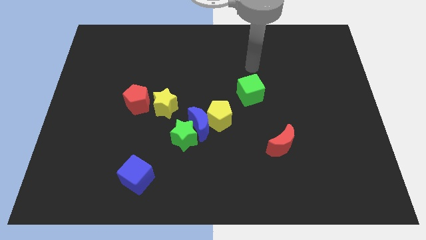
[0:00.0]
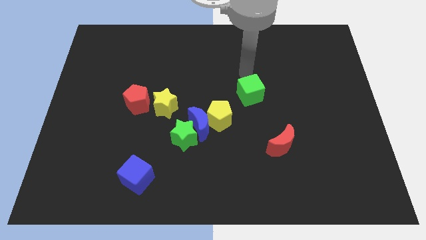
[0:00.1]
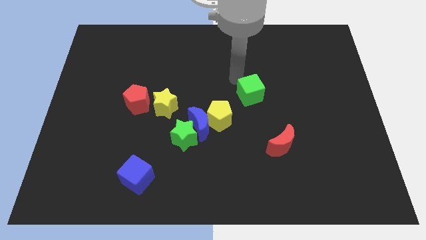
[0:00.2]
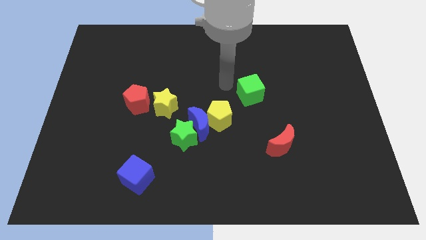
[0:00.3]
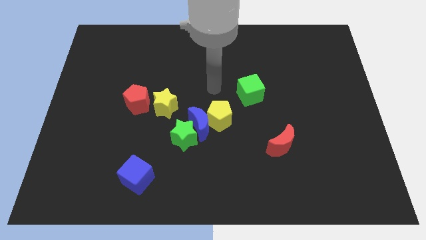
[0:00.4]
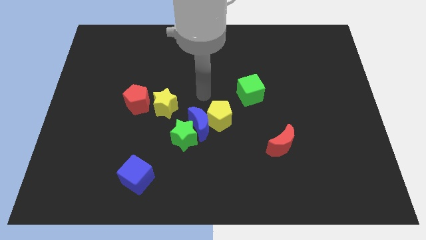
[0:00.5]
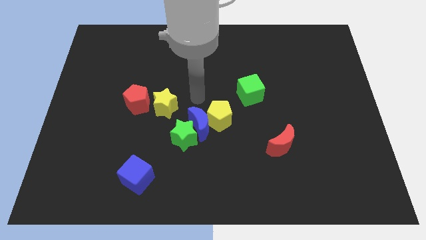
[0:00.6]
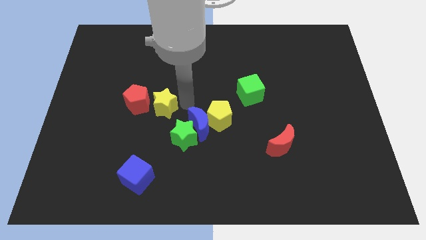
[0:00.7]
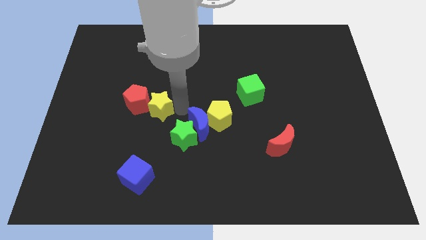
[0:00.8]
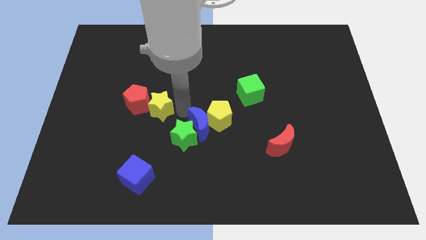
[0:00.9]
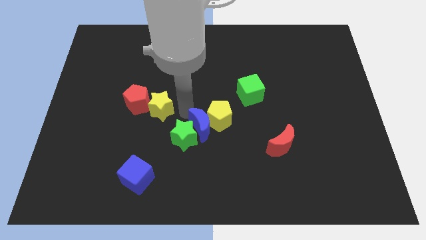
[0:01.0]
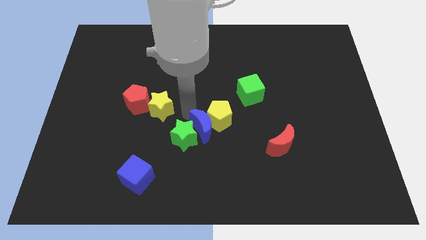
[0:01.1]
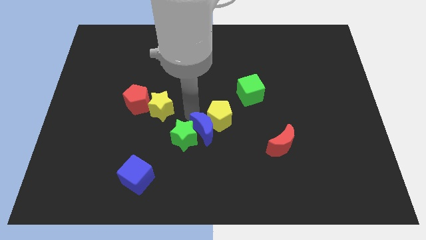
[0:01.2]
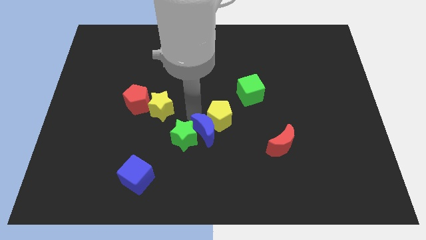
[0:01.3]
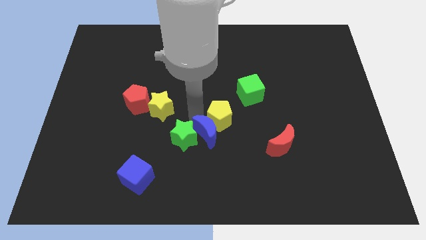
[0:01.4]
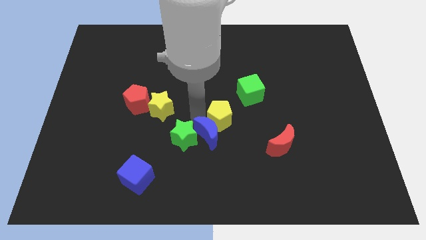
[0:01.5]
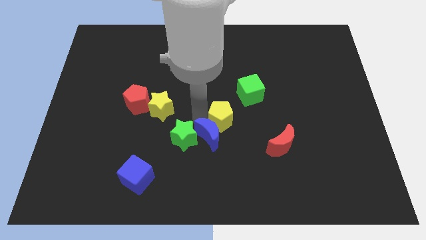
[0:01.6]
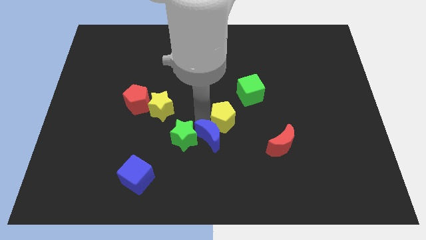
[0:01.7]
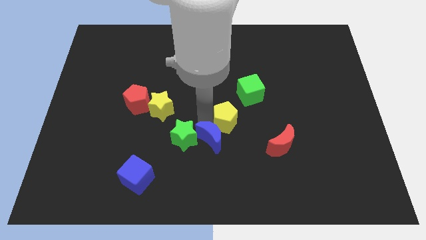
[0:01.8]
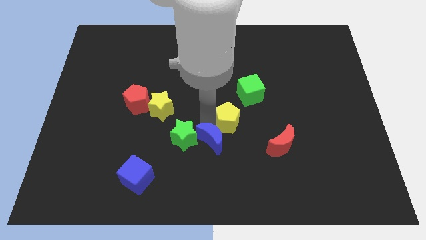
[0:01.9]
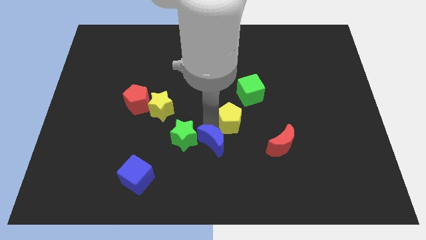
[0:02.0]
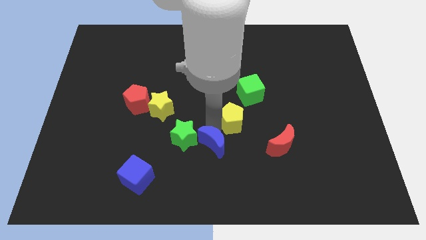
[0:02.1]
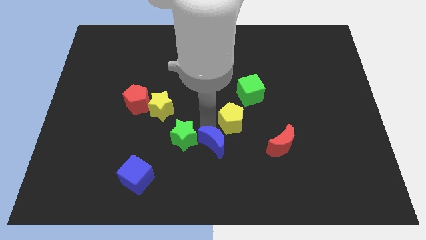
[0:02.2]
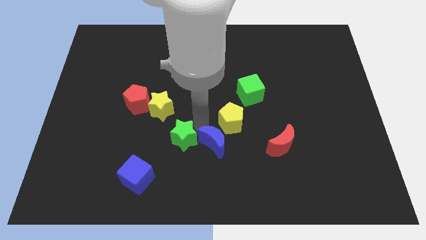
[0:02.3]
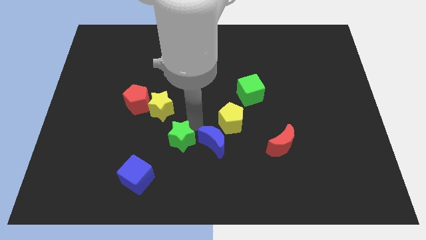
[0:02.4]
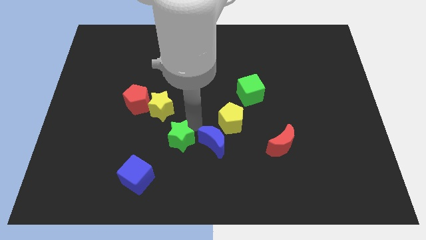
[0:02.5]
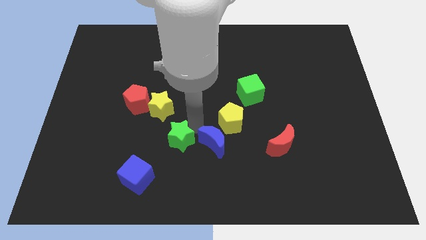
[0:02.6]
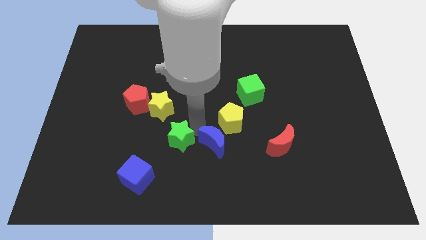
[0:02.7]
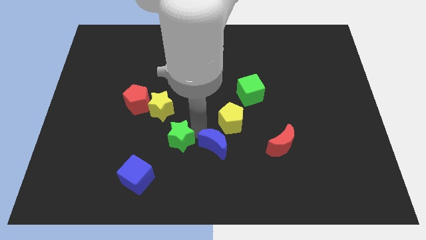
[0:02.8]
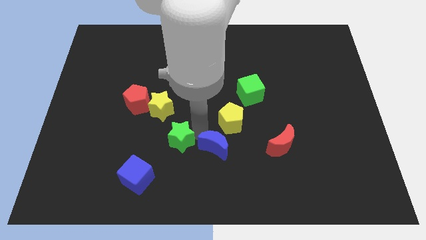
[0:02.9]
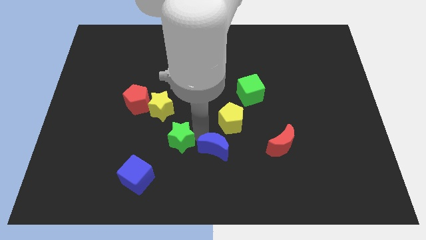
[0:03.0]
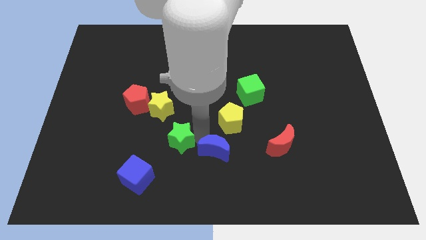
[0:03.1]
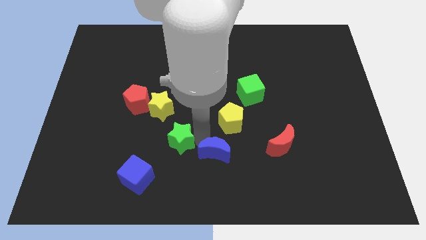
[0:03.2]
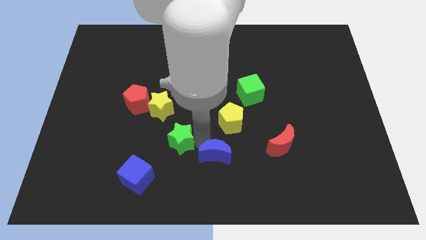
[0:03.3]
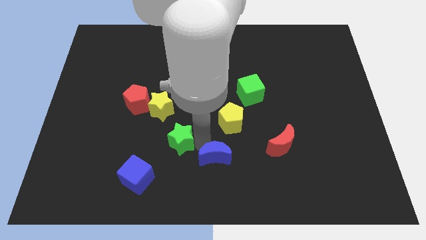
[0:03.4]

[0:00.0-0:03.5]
separate the blue moon from the green star, yellow pentagon, and yellow star

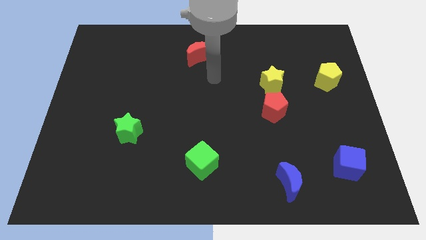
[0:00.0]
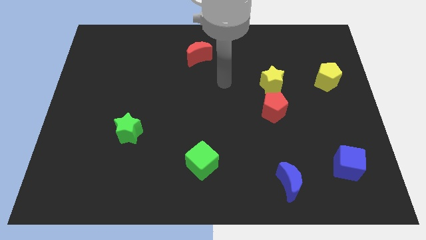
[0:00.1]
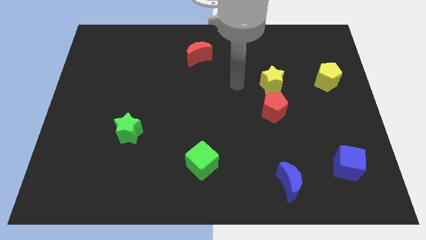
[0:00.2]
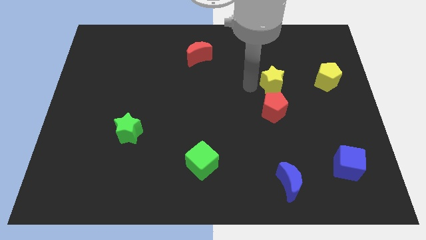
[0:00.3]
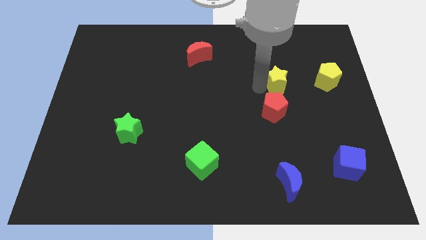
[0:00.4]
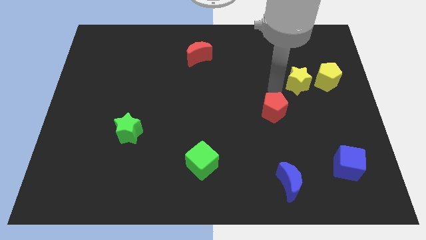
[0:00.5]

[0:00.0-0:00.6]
pull the red pentagon apart from the yellow star

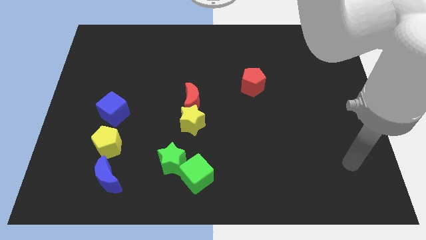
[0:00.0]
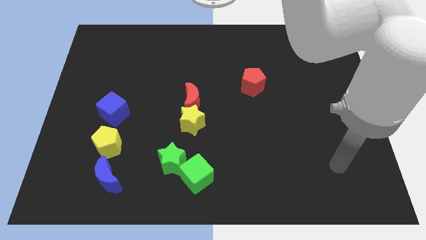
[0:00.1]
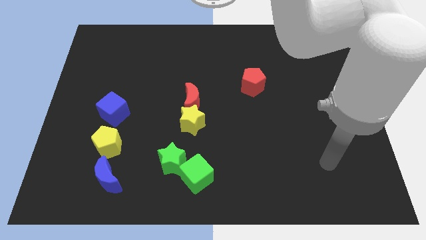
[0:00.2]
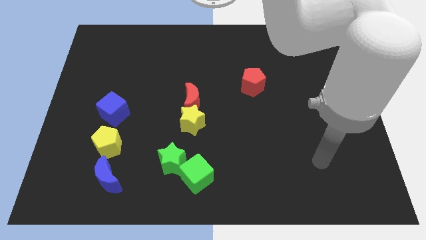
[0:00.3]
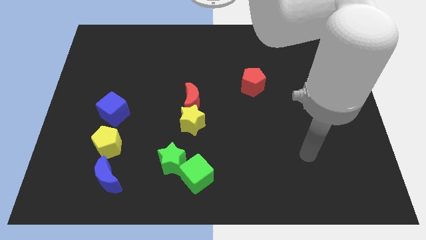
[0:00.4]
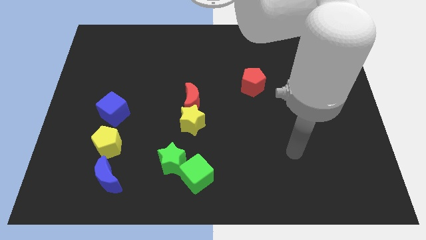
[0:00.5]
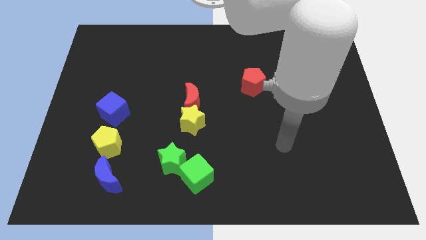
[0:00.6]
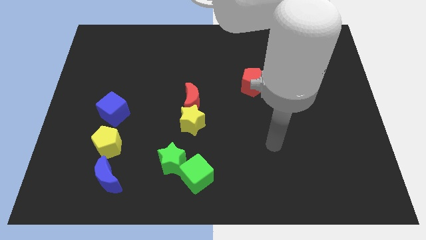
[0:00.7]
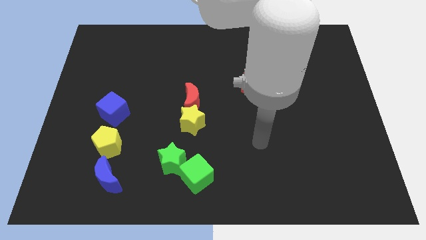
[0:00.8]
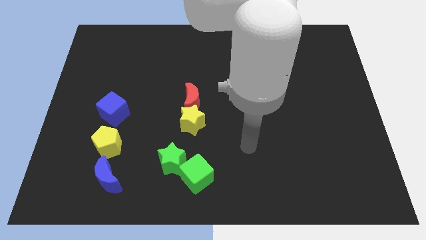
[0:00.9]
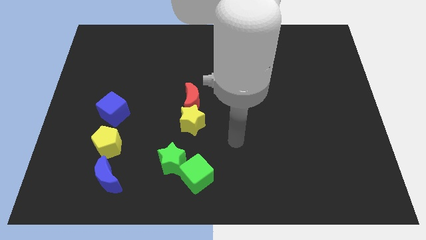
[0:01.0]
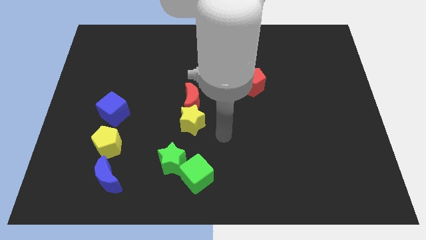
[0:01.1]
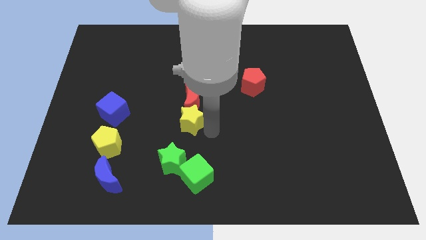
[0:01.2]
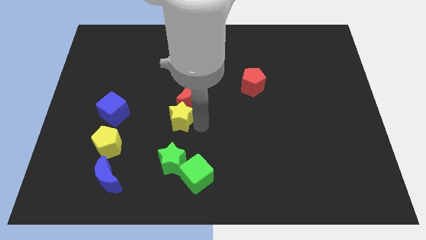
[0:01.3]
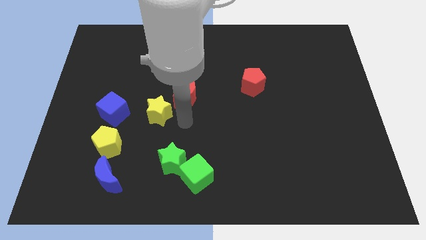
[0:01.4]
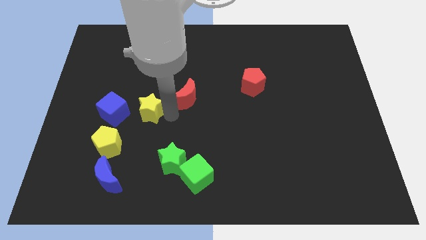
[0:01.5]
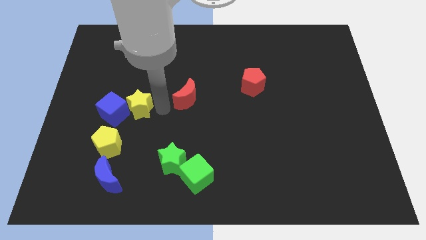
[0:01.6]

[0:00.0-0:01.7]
pull the red moon apart from the yellow star

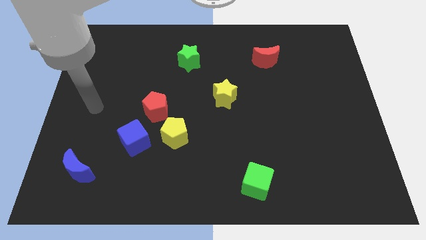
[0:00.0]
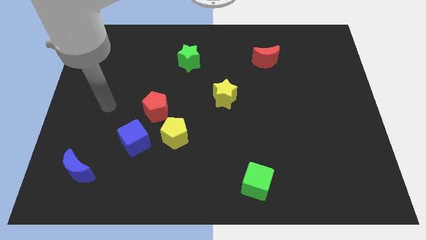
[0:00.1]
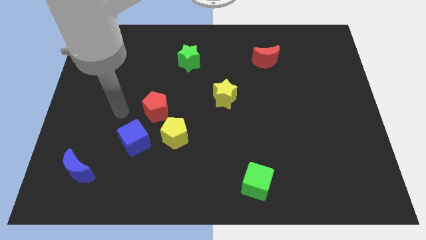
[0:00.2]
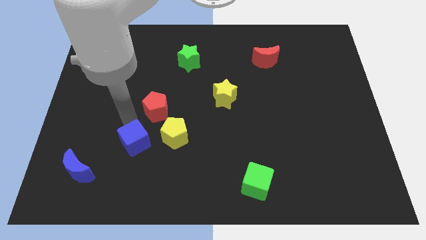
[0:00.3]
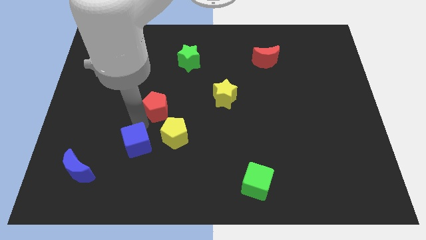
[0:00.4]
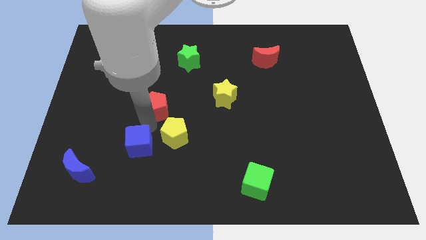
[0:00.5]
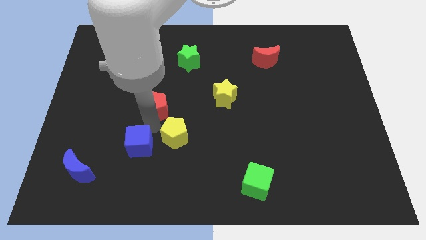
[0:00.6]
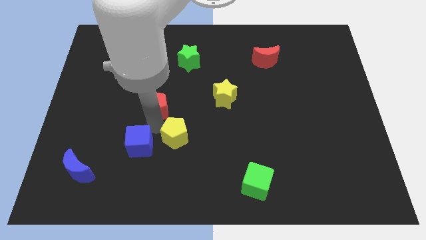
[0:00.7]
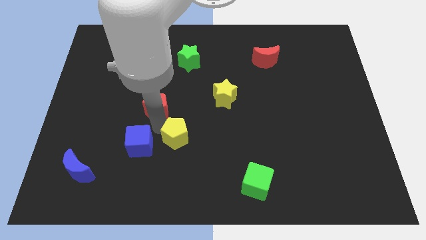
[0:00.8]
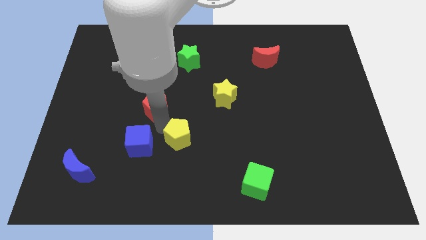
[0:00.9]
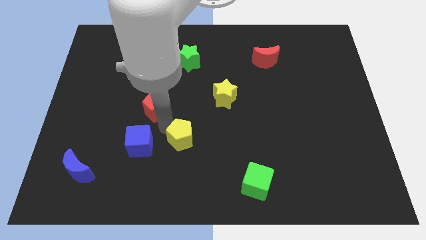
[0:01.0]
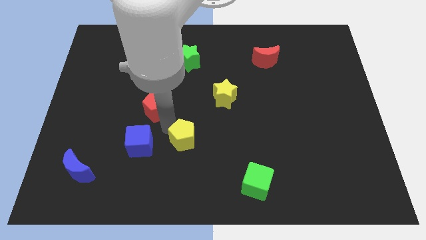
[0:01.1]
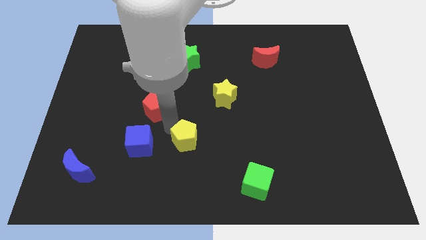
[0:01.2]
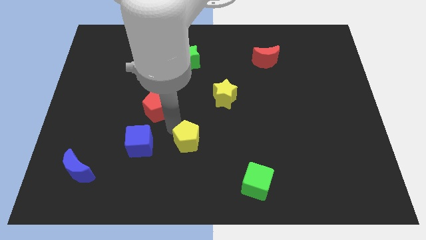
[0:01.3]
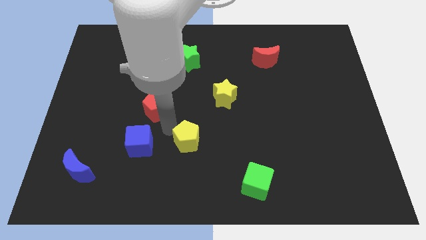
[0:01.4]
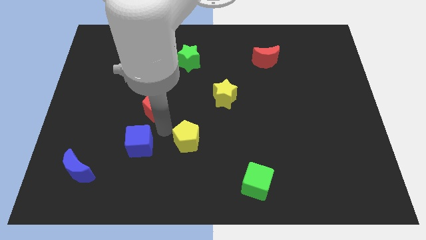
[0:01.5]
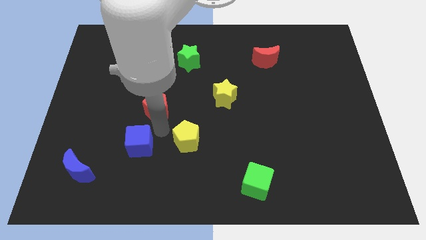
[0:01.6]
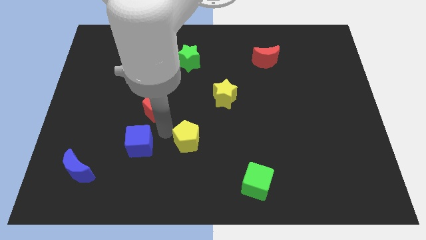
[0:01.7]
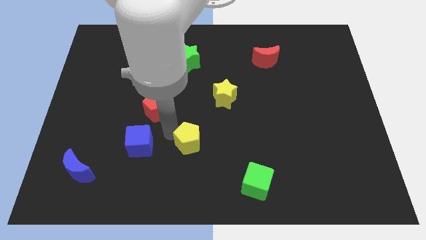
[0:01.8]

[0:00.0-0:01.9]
move the yellow pentagon away from the red pentagon and blue cube

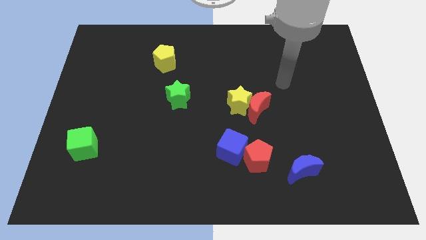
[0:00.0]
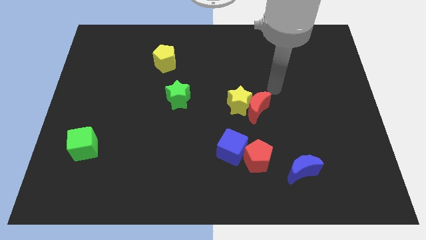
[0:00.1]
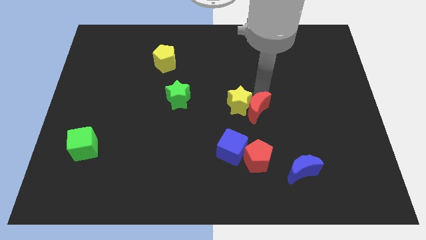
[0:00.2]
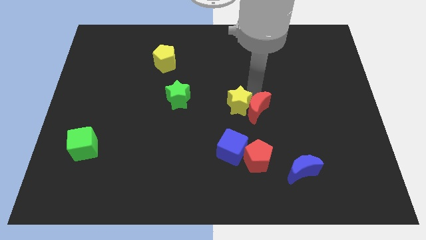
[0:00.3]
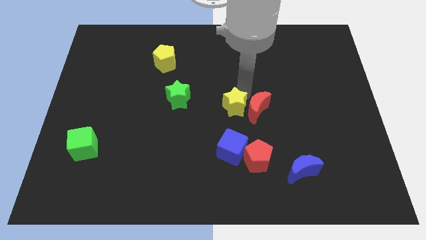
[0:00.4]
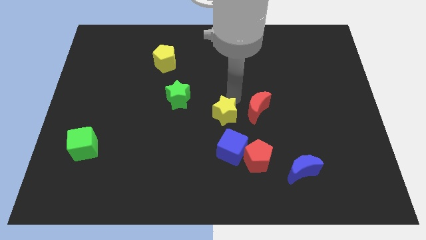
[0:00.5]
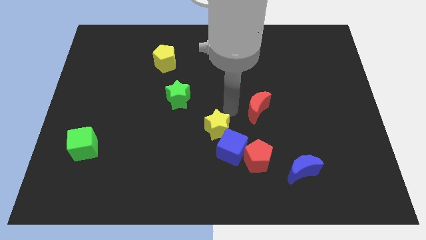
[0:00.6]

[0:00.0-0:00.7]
move the red moon away from the yellow star

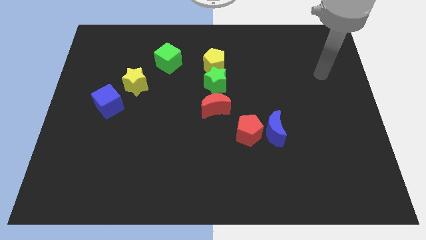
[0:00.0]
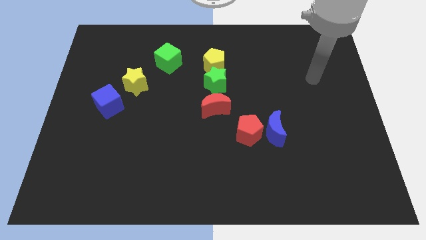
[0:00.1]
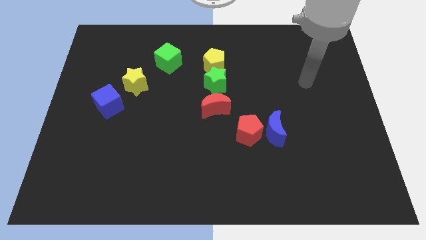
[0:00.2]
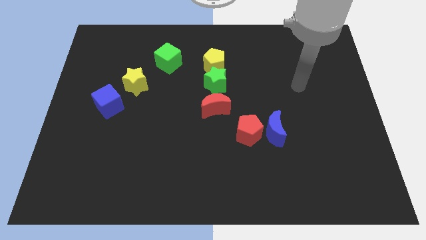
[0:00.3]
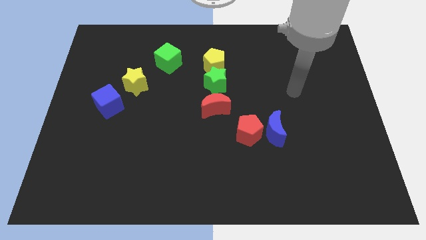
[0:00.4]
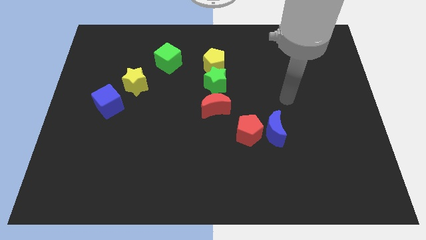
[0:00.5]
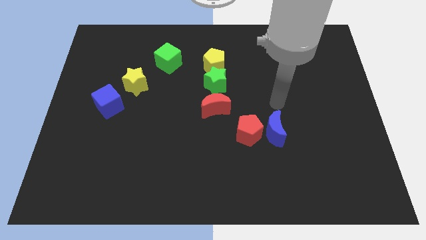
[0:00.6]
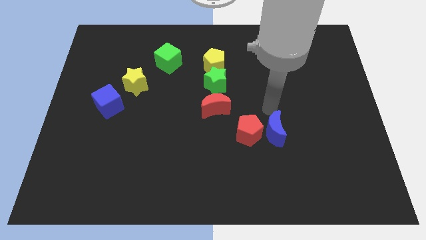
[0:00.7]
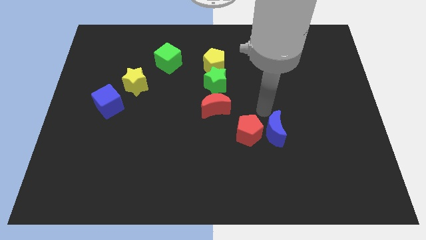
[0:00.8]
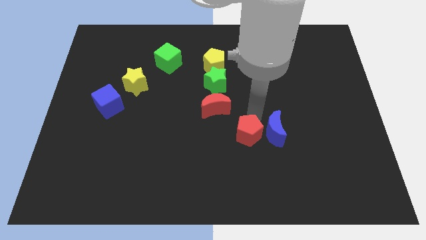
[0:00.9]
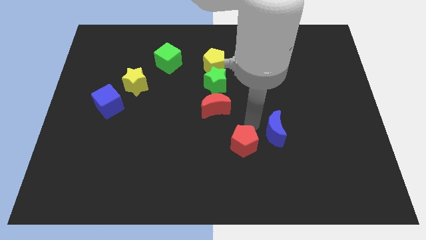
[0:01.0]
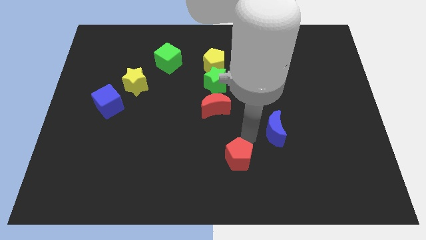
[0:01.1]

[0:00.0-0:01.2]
separate the blue moon from the red pentagon
